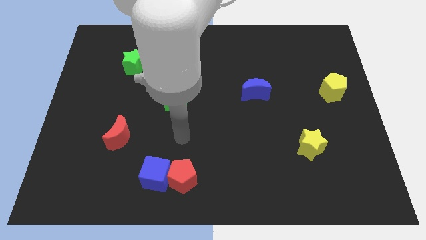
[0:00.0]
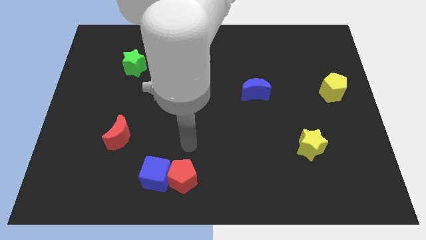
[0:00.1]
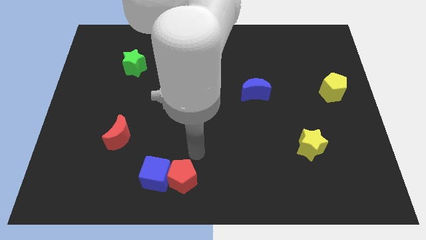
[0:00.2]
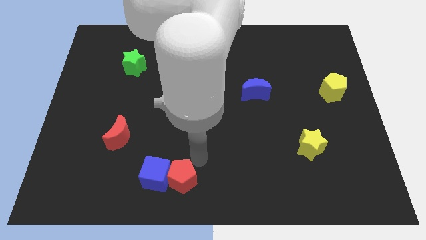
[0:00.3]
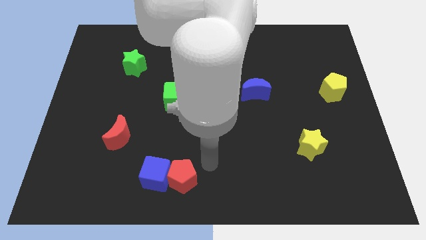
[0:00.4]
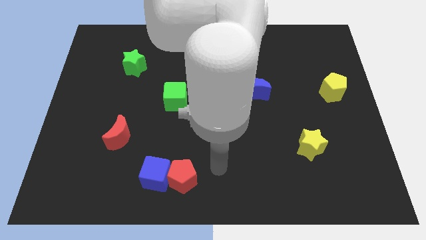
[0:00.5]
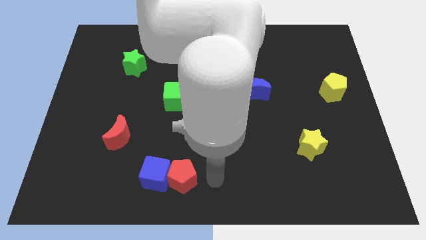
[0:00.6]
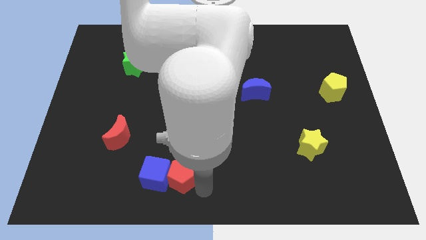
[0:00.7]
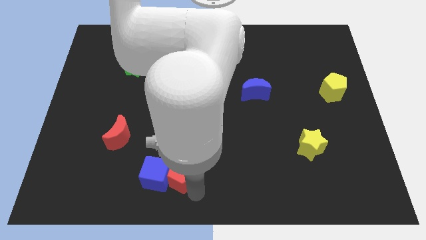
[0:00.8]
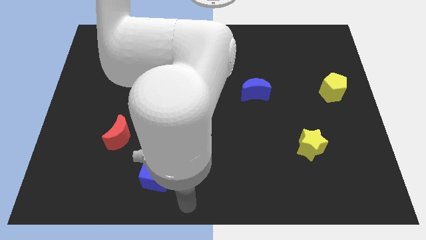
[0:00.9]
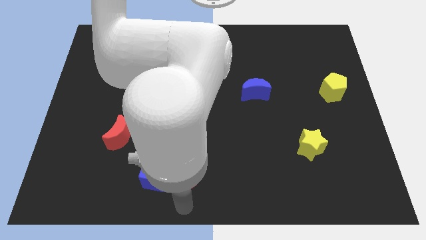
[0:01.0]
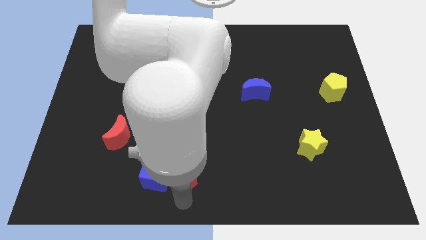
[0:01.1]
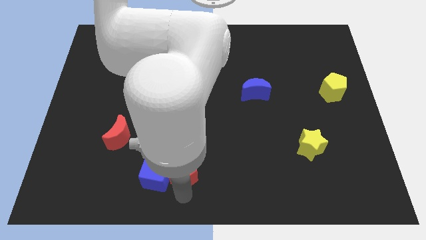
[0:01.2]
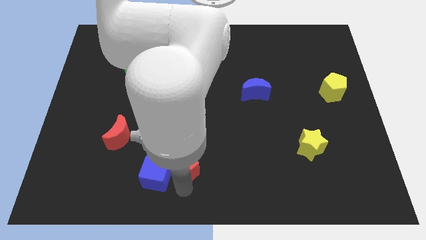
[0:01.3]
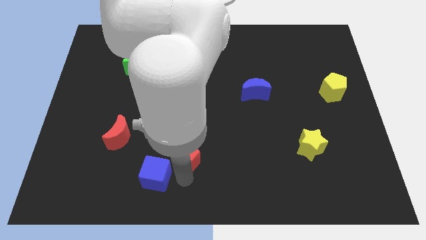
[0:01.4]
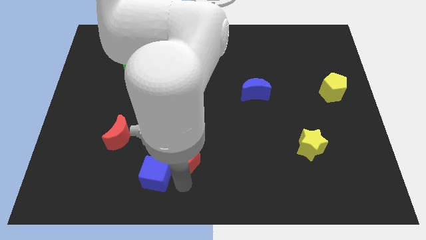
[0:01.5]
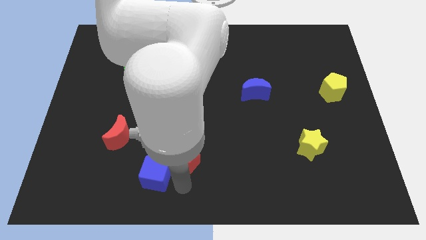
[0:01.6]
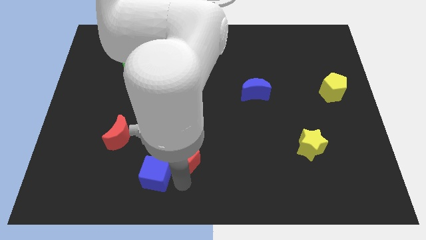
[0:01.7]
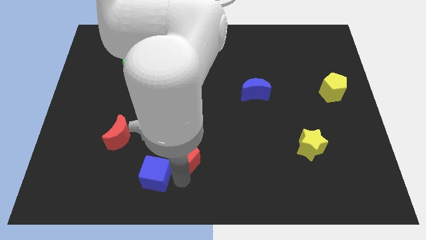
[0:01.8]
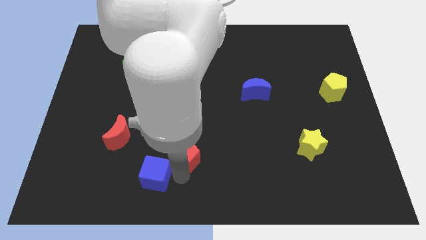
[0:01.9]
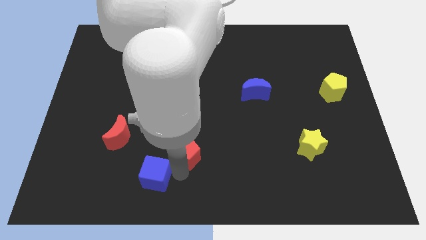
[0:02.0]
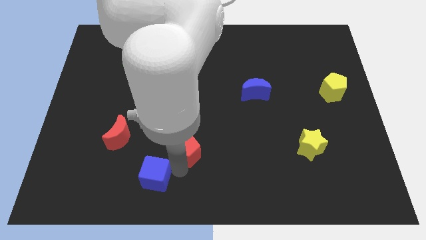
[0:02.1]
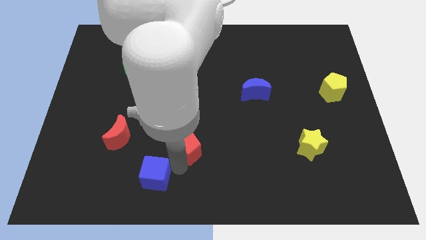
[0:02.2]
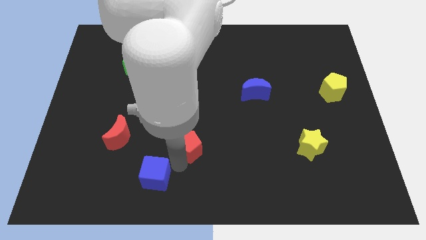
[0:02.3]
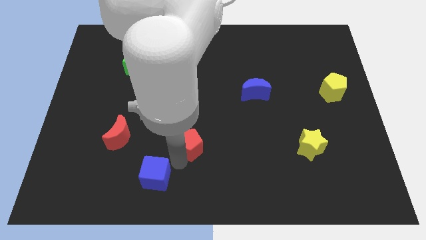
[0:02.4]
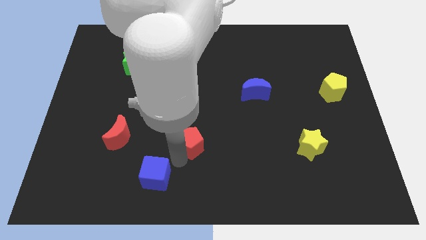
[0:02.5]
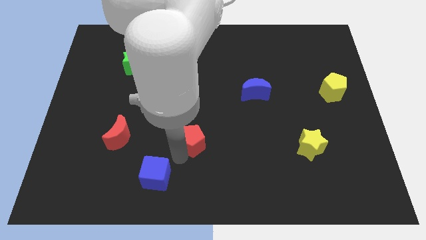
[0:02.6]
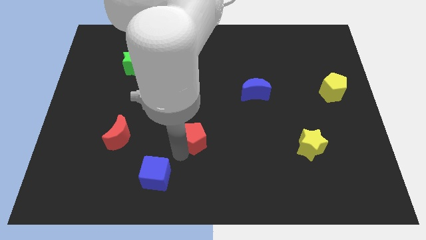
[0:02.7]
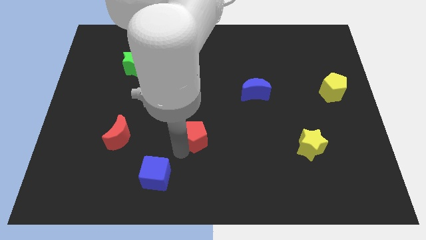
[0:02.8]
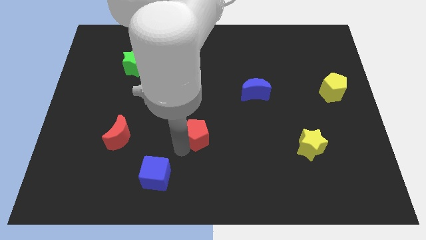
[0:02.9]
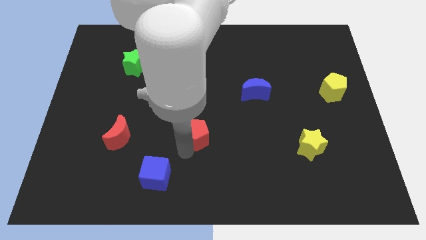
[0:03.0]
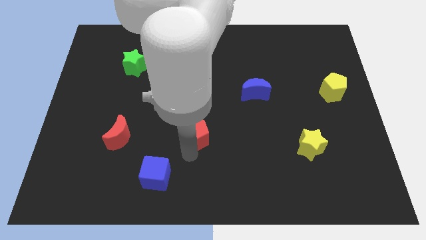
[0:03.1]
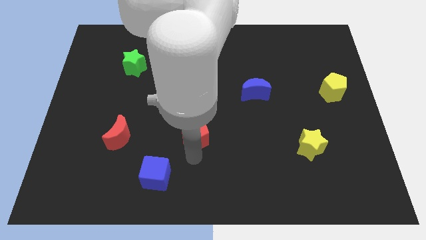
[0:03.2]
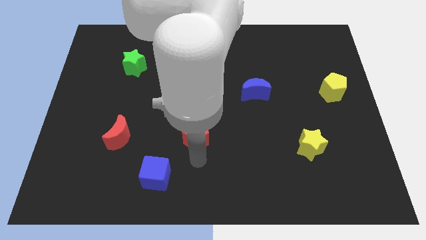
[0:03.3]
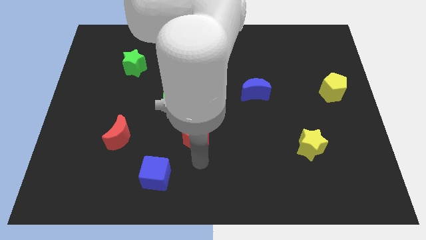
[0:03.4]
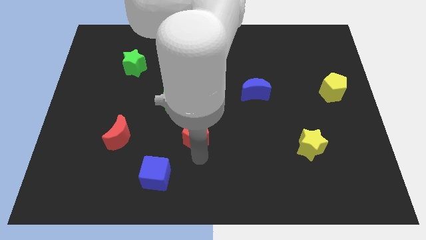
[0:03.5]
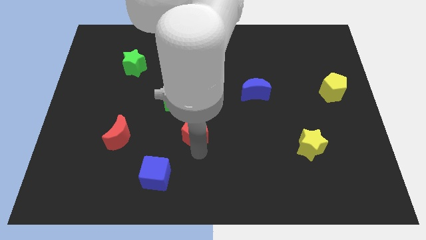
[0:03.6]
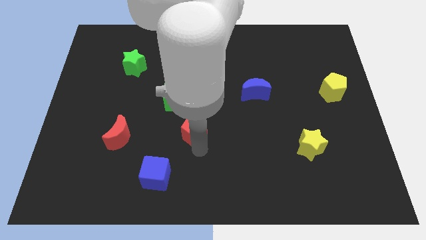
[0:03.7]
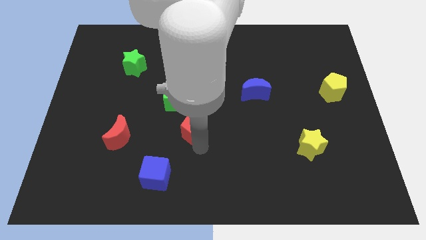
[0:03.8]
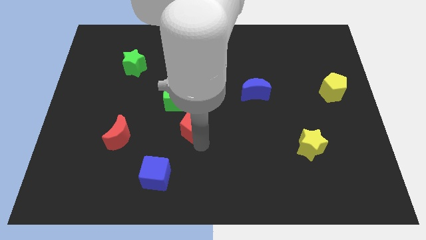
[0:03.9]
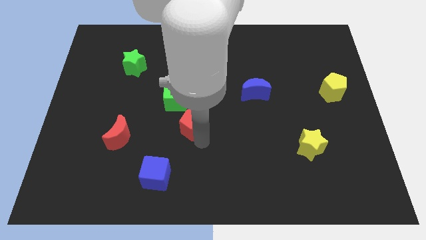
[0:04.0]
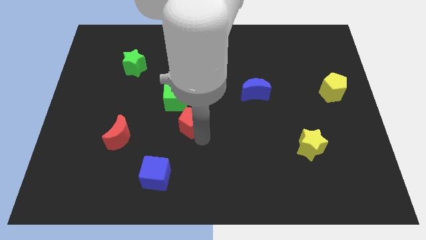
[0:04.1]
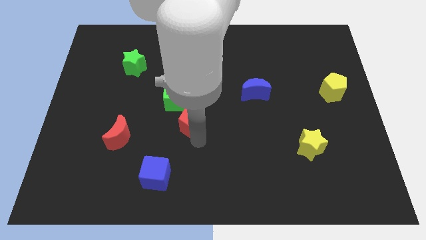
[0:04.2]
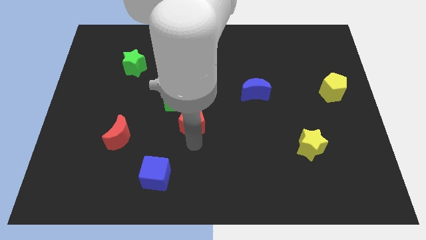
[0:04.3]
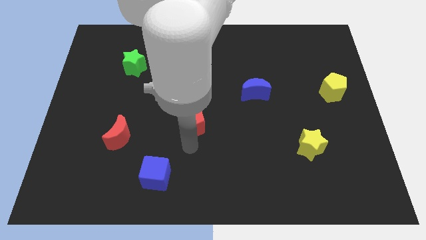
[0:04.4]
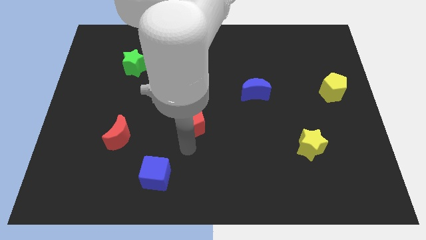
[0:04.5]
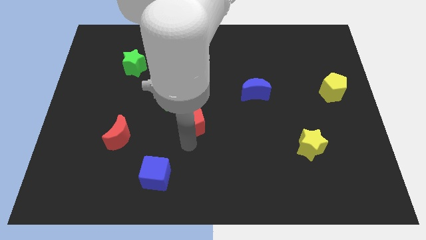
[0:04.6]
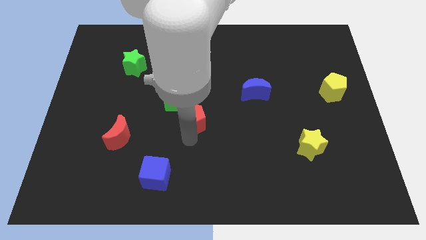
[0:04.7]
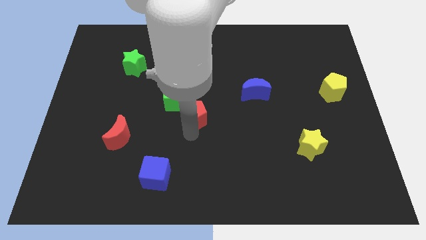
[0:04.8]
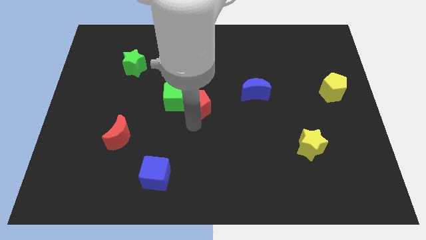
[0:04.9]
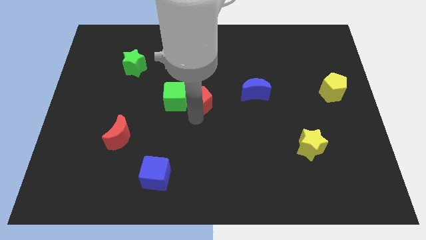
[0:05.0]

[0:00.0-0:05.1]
put the red pentagon diagonally up and to the right of the green cube

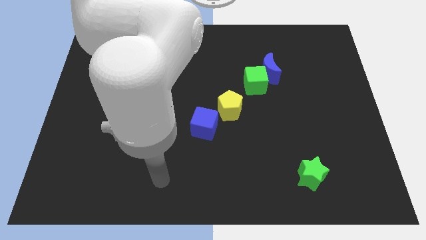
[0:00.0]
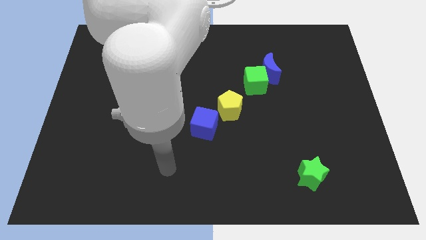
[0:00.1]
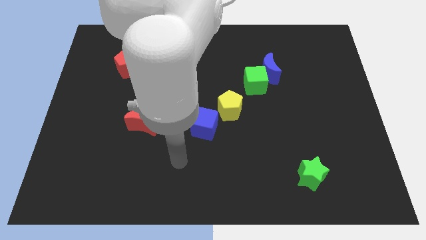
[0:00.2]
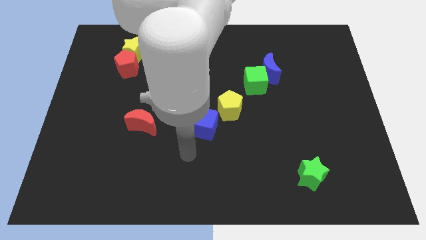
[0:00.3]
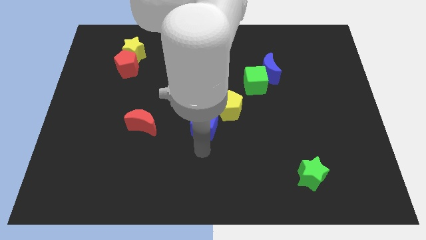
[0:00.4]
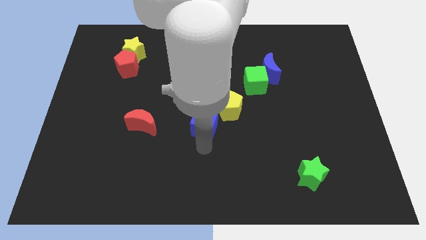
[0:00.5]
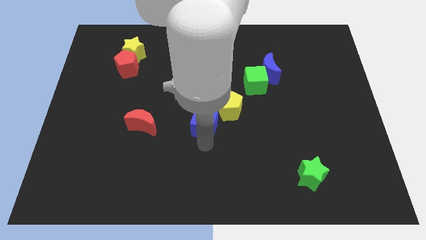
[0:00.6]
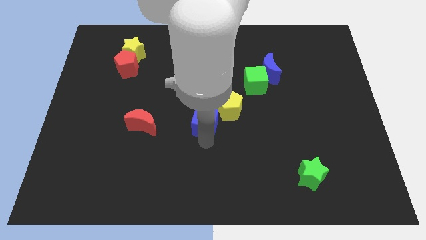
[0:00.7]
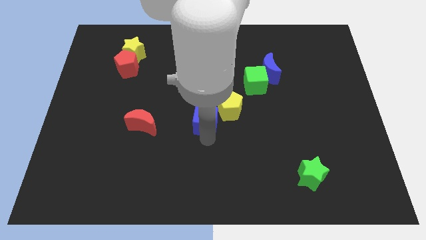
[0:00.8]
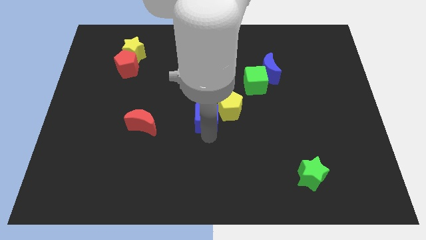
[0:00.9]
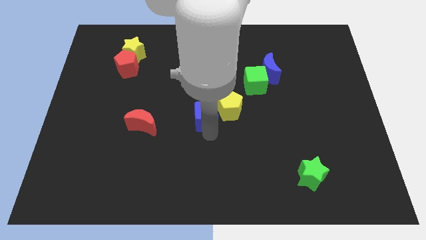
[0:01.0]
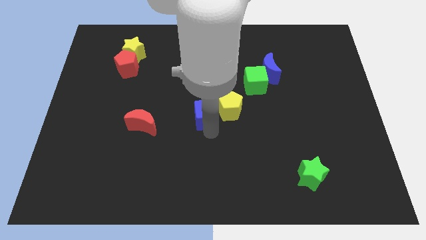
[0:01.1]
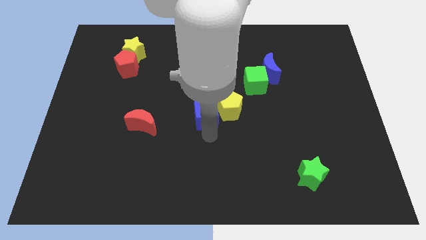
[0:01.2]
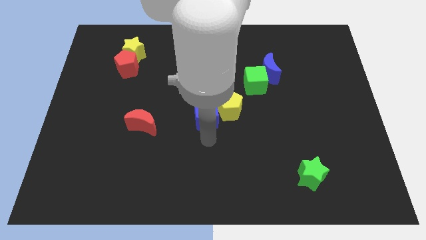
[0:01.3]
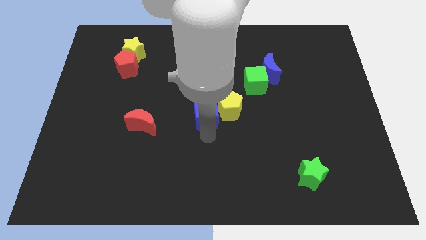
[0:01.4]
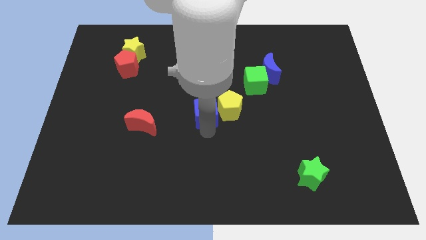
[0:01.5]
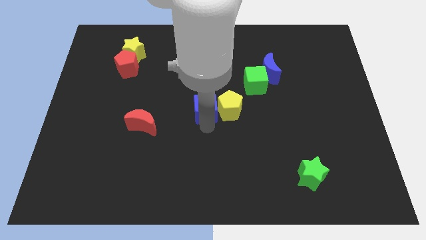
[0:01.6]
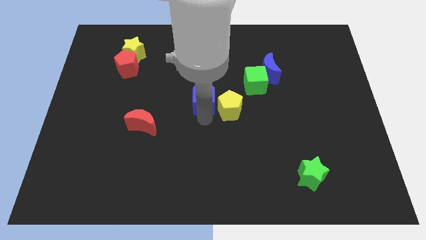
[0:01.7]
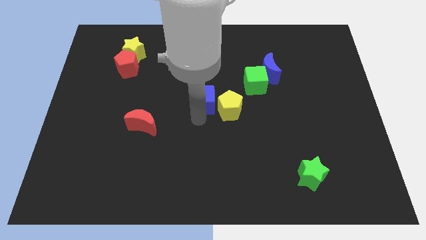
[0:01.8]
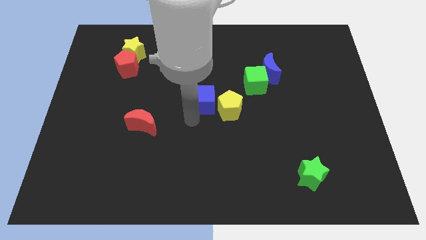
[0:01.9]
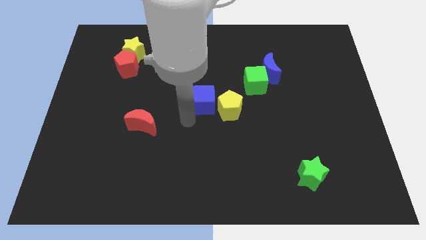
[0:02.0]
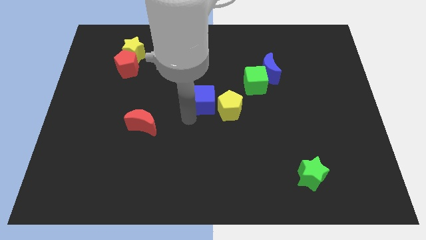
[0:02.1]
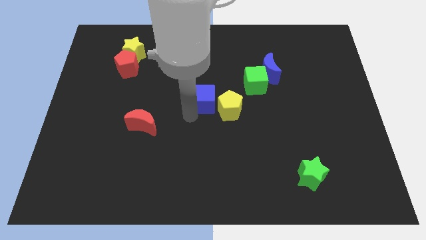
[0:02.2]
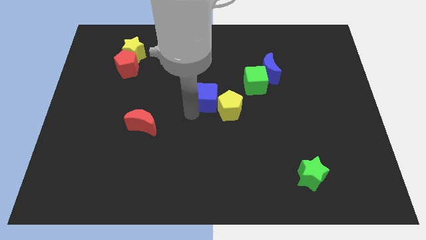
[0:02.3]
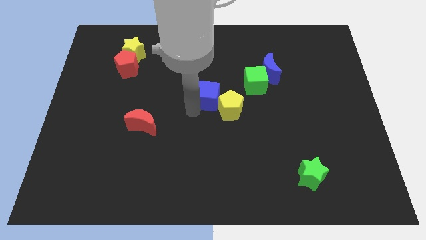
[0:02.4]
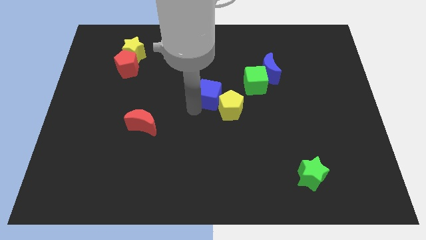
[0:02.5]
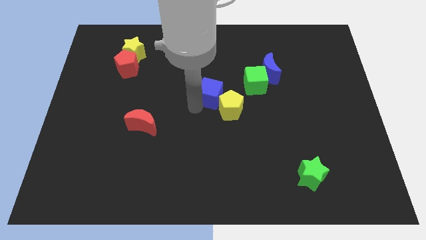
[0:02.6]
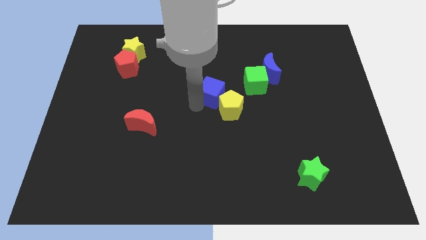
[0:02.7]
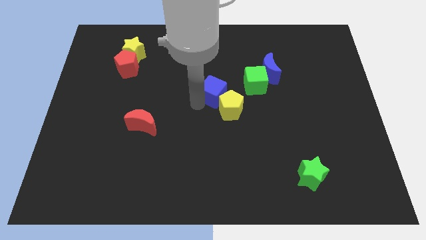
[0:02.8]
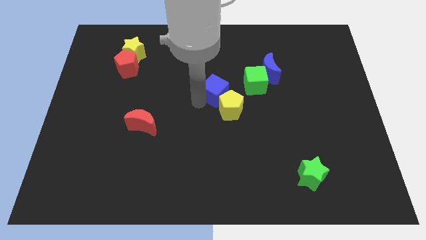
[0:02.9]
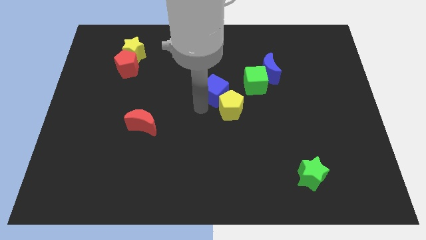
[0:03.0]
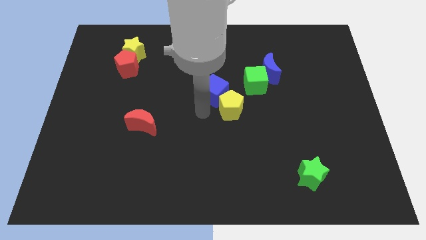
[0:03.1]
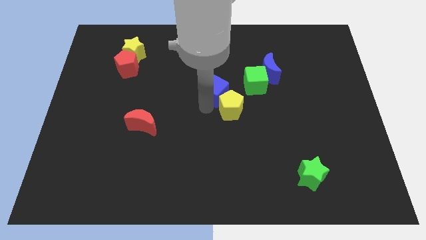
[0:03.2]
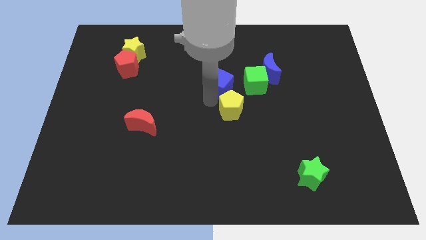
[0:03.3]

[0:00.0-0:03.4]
move the blue cube left of the blue moon
